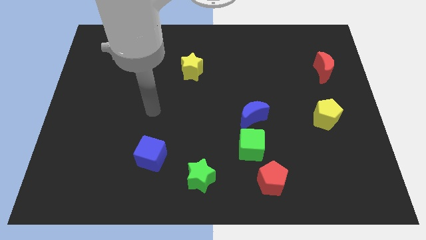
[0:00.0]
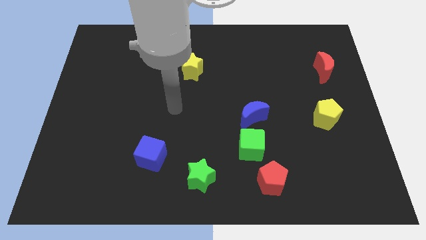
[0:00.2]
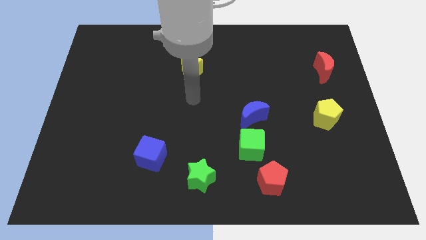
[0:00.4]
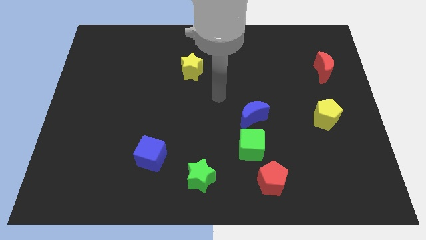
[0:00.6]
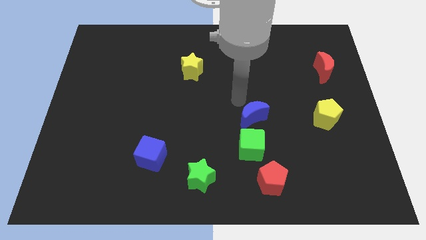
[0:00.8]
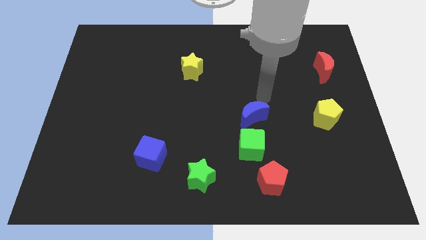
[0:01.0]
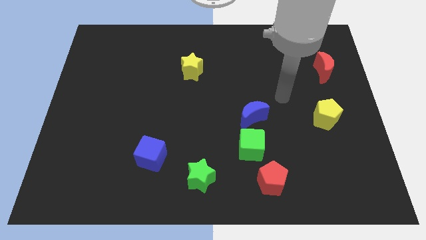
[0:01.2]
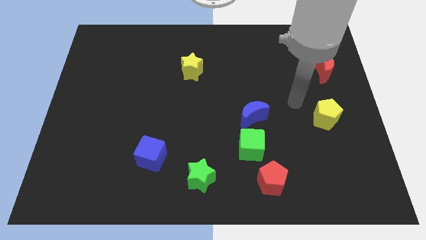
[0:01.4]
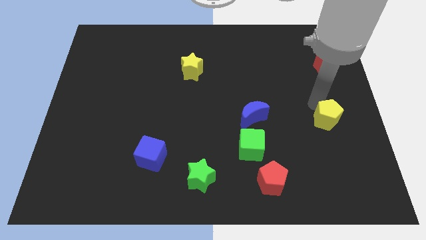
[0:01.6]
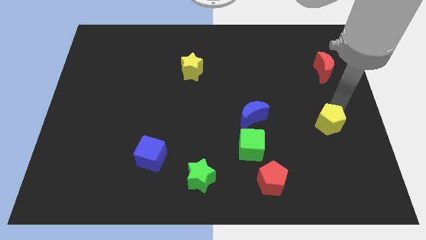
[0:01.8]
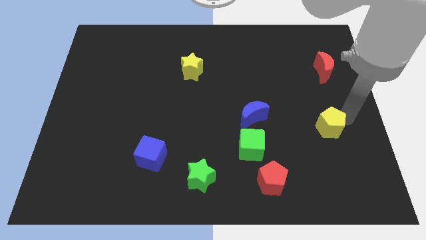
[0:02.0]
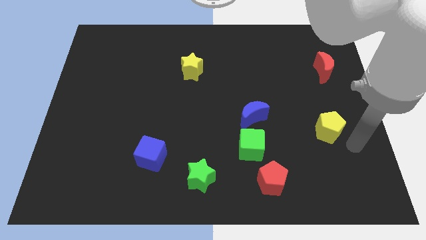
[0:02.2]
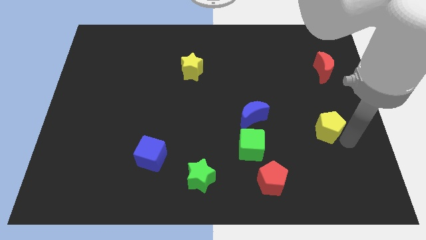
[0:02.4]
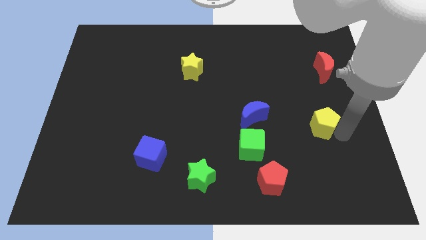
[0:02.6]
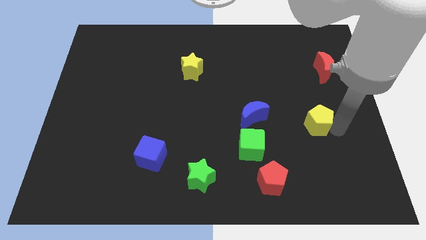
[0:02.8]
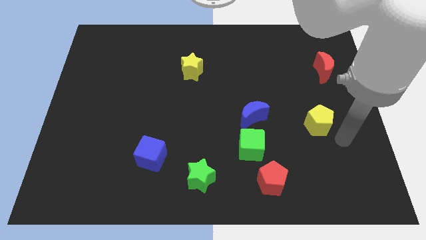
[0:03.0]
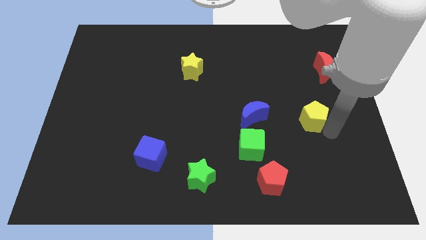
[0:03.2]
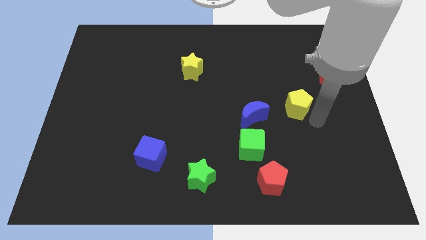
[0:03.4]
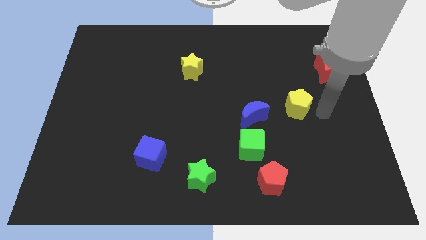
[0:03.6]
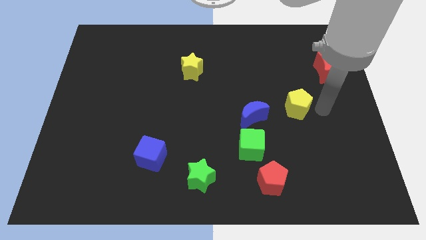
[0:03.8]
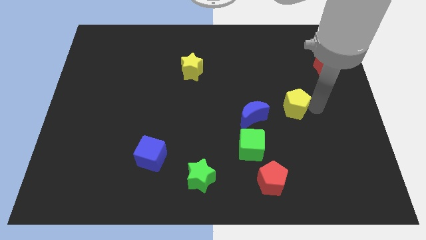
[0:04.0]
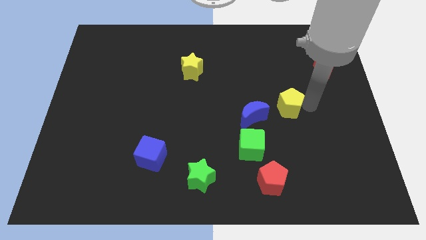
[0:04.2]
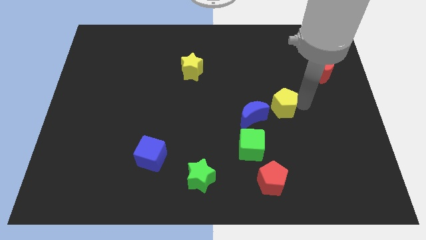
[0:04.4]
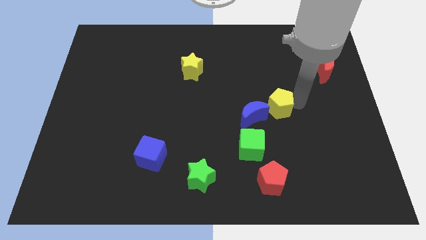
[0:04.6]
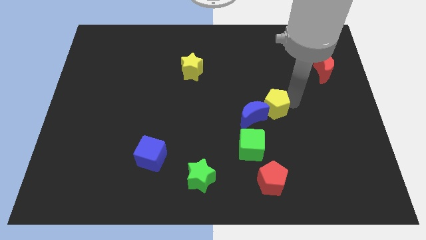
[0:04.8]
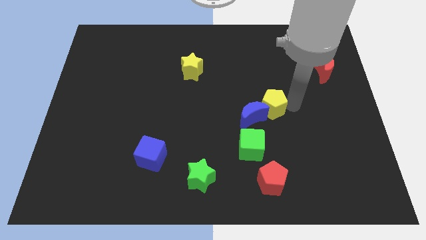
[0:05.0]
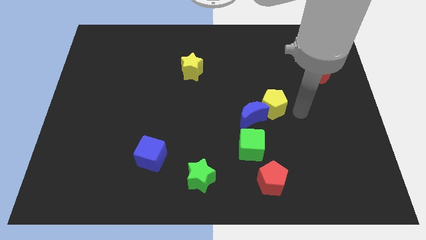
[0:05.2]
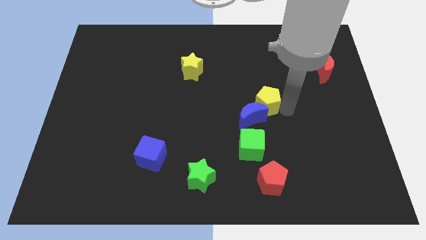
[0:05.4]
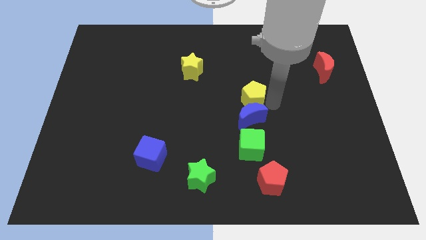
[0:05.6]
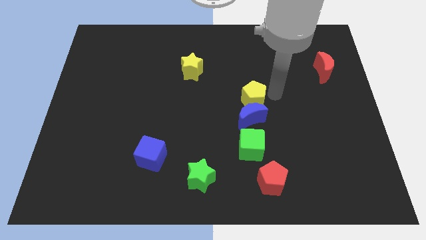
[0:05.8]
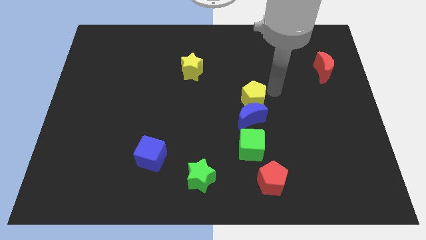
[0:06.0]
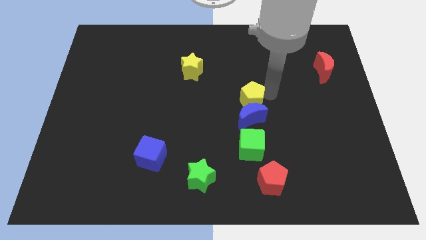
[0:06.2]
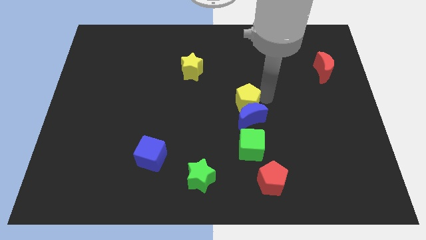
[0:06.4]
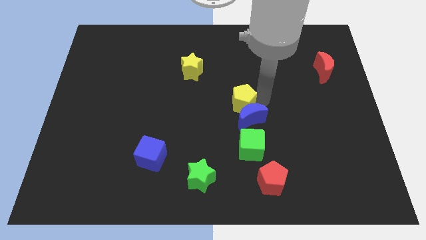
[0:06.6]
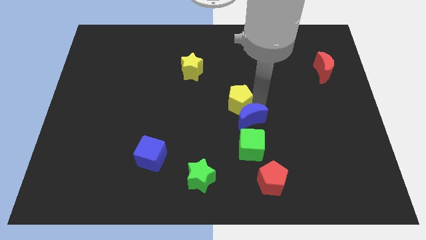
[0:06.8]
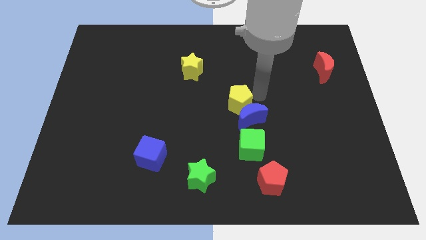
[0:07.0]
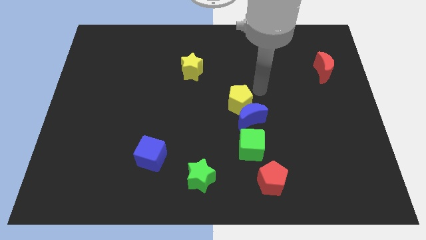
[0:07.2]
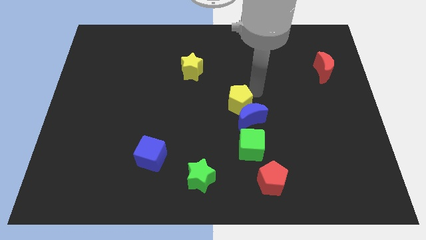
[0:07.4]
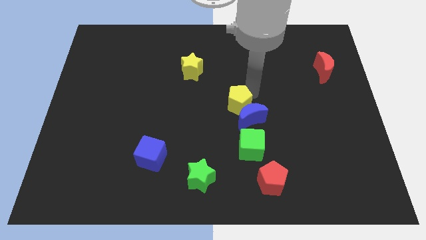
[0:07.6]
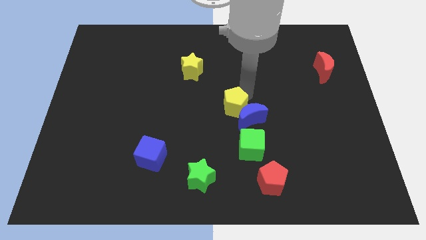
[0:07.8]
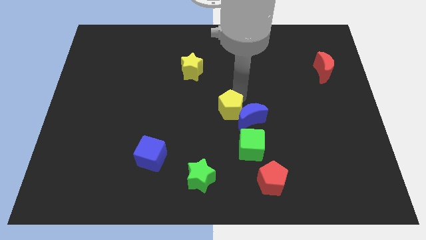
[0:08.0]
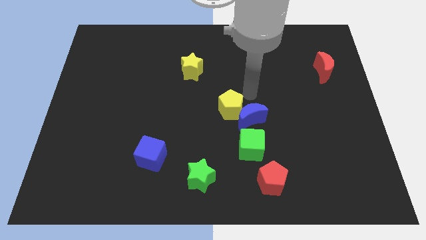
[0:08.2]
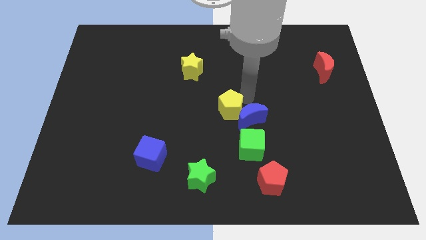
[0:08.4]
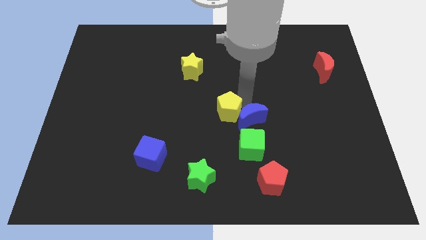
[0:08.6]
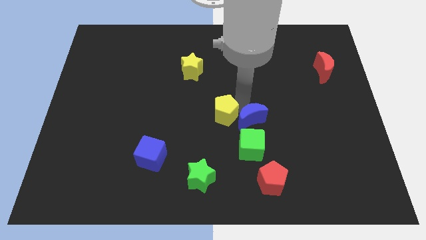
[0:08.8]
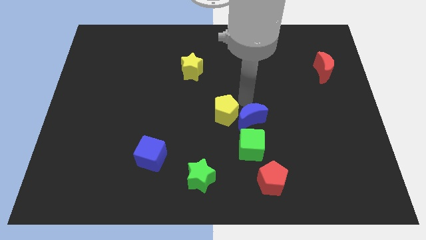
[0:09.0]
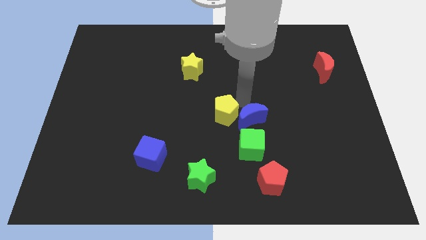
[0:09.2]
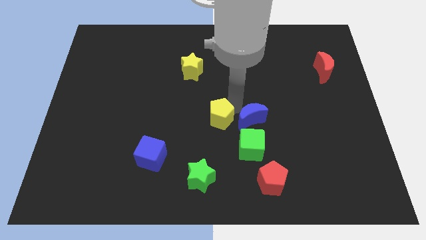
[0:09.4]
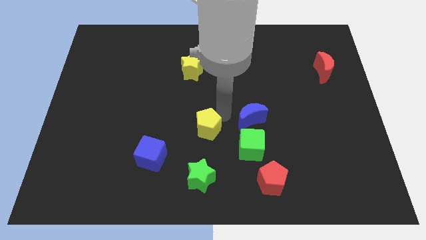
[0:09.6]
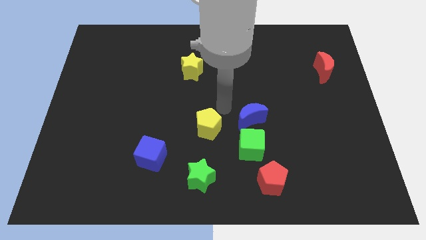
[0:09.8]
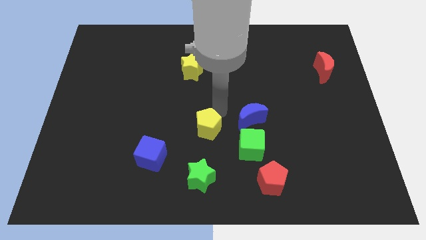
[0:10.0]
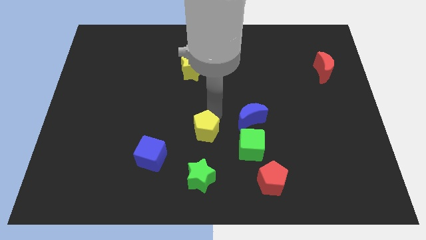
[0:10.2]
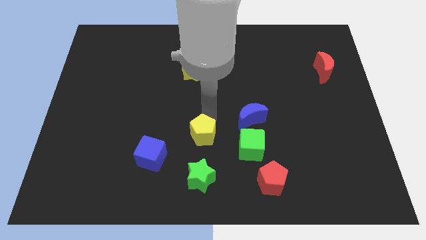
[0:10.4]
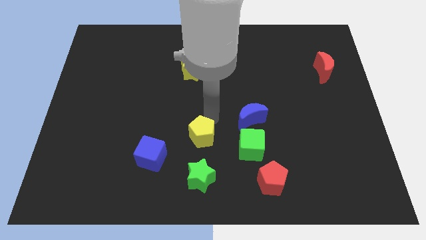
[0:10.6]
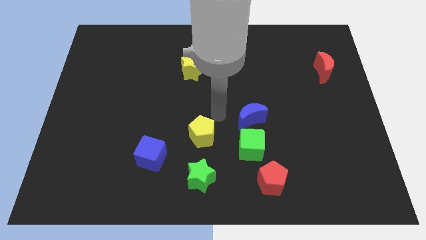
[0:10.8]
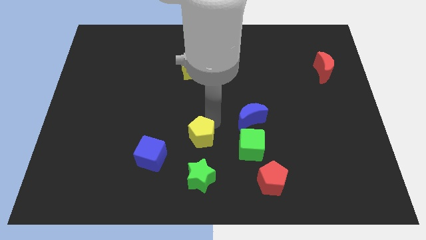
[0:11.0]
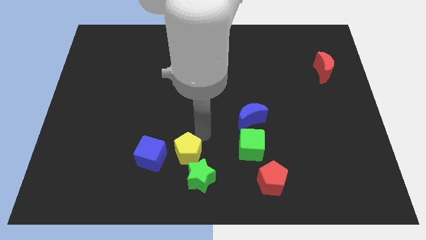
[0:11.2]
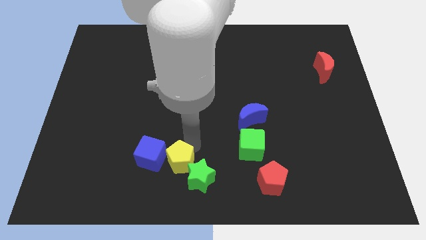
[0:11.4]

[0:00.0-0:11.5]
move the yellow pentagon to the bottom right side of the blue cube

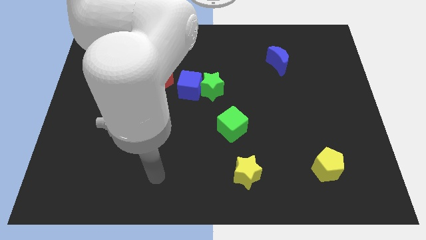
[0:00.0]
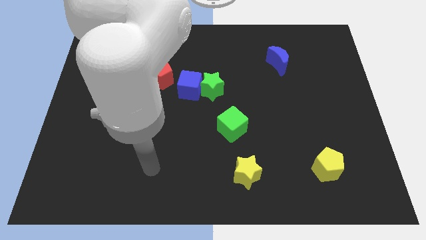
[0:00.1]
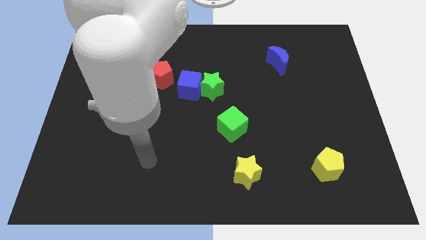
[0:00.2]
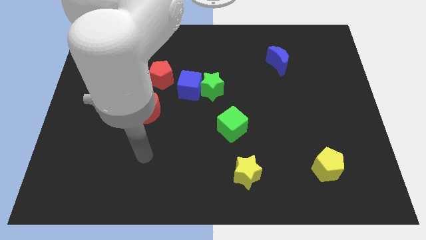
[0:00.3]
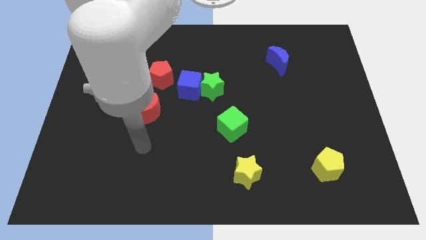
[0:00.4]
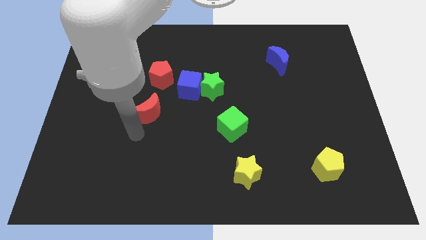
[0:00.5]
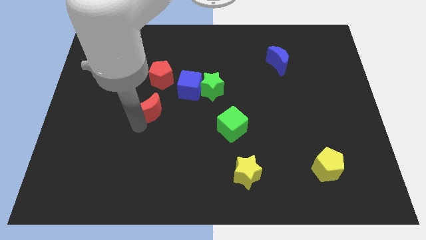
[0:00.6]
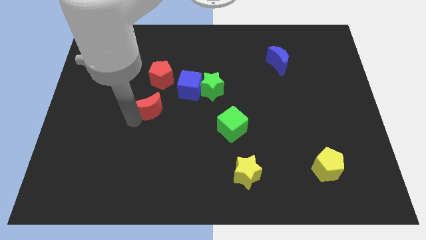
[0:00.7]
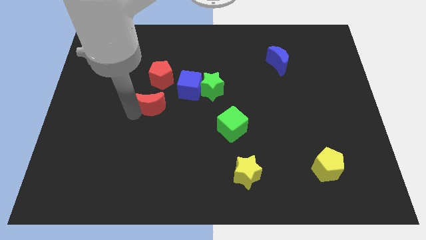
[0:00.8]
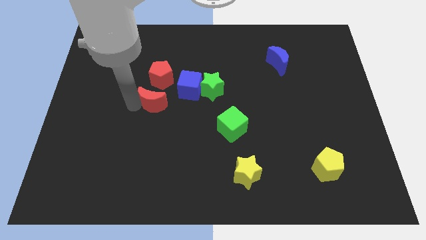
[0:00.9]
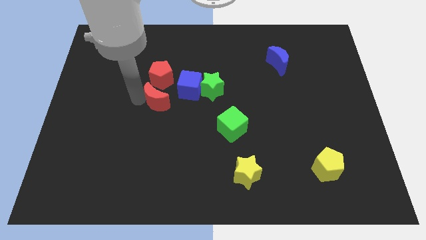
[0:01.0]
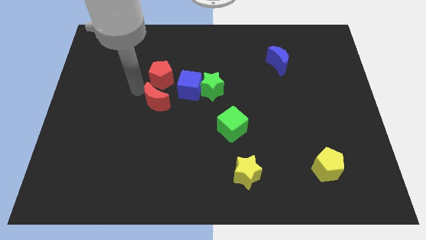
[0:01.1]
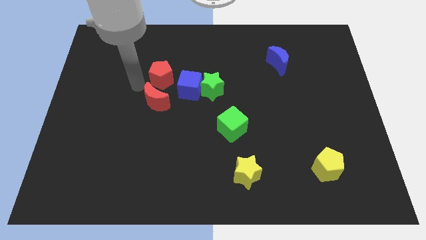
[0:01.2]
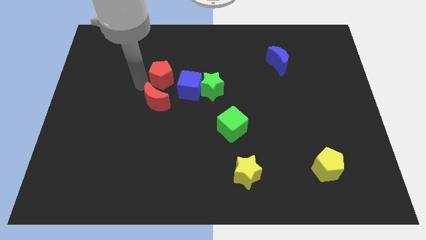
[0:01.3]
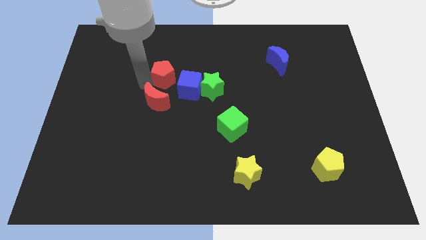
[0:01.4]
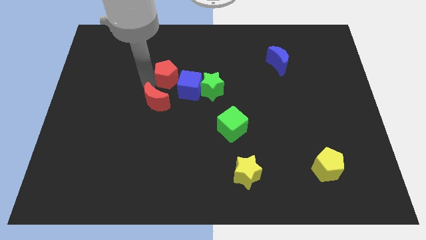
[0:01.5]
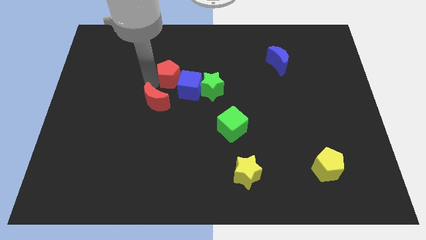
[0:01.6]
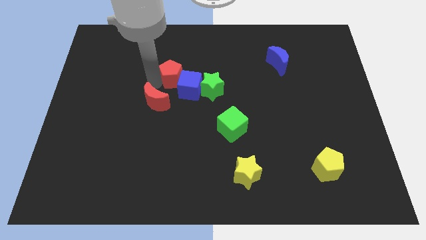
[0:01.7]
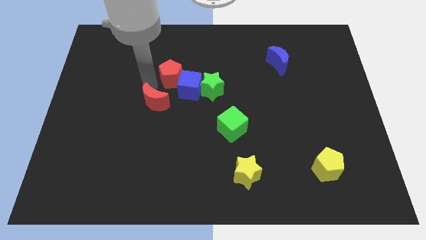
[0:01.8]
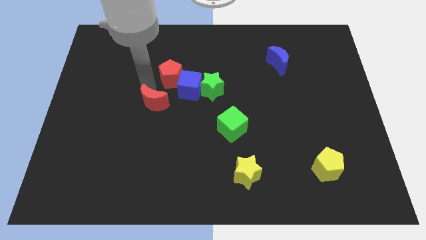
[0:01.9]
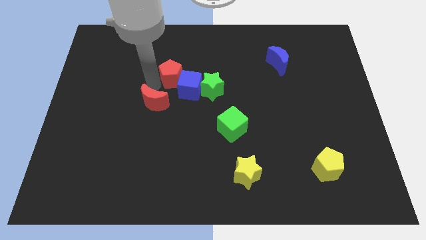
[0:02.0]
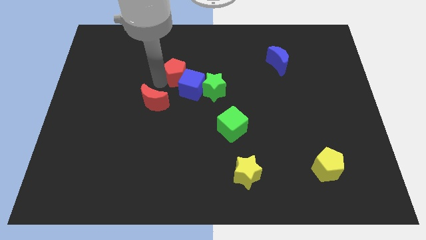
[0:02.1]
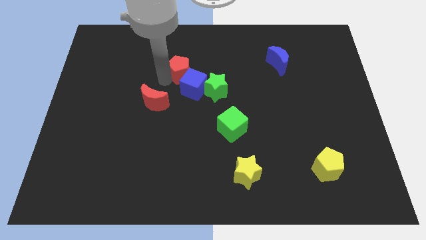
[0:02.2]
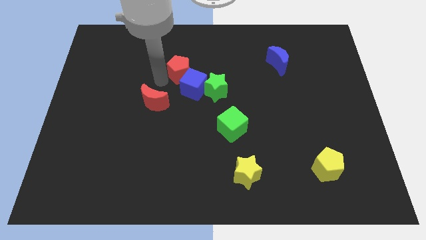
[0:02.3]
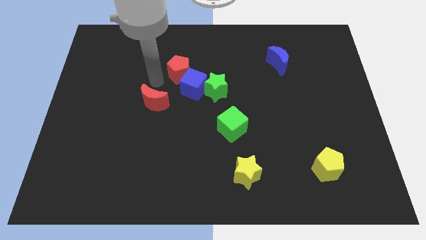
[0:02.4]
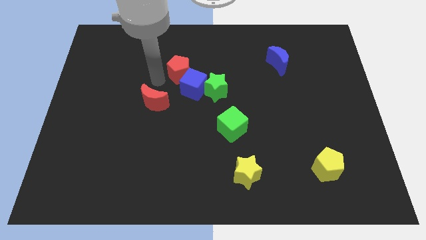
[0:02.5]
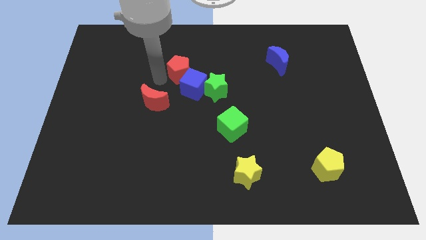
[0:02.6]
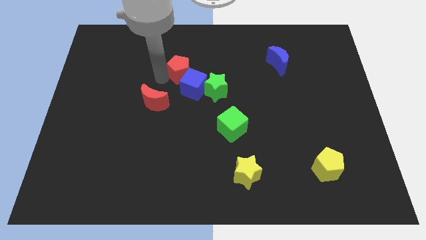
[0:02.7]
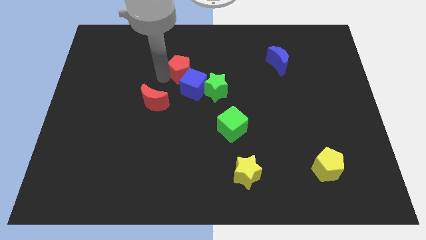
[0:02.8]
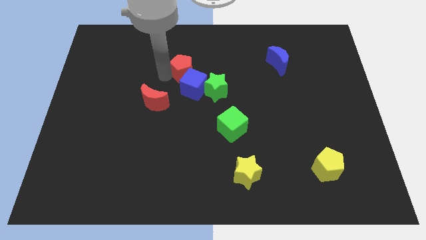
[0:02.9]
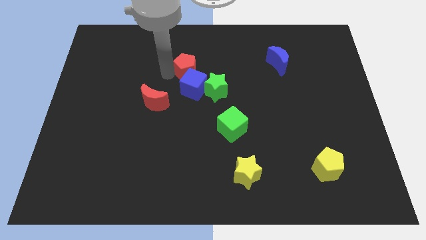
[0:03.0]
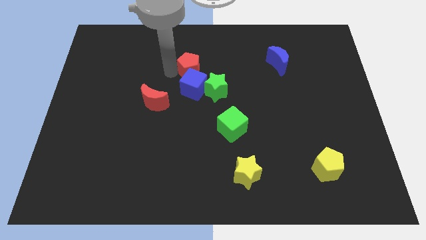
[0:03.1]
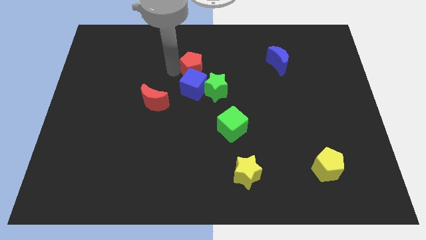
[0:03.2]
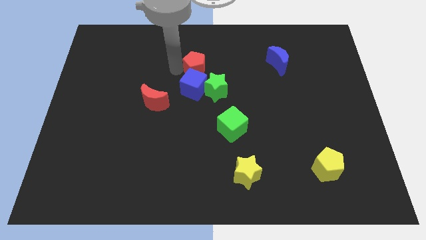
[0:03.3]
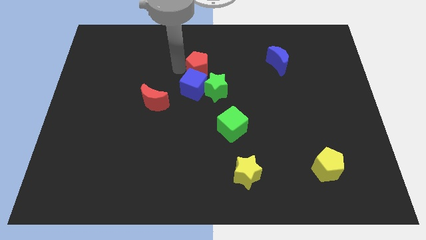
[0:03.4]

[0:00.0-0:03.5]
move the red pentagon to the top of the green star
